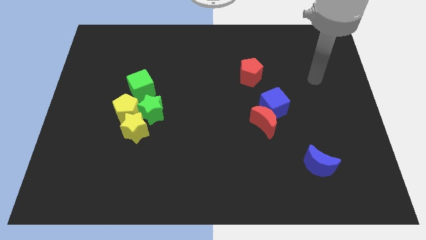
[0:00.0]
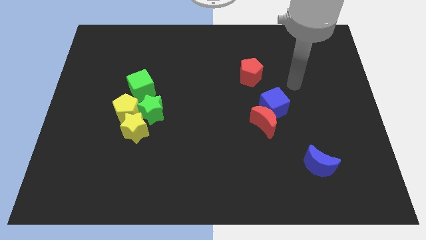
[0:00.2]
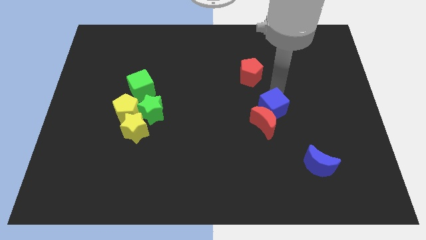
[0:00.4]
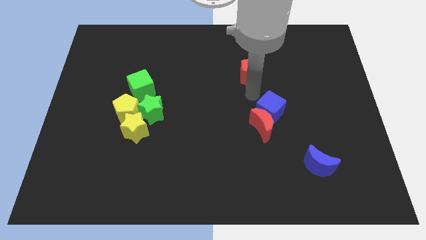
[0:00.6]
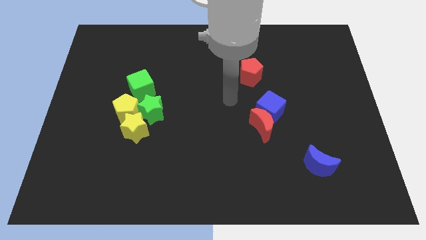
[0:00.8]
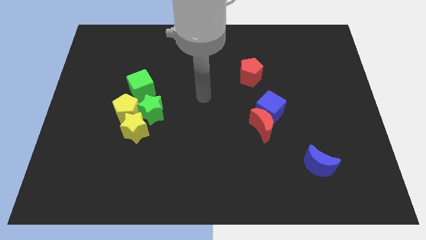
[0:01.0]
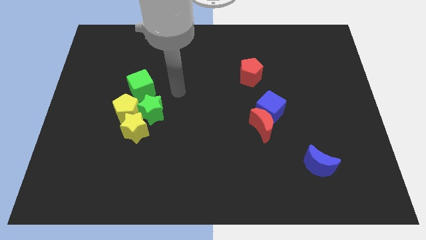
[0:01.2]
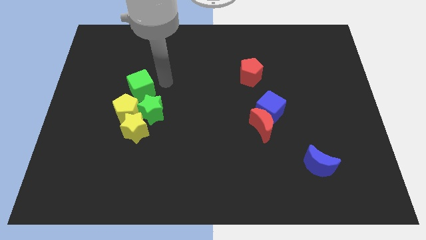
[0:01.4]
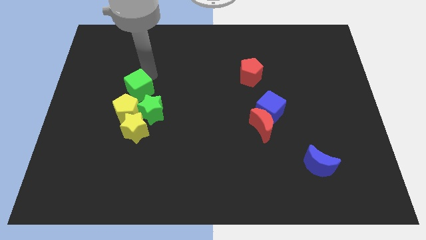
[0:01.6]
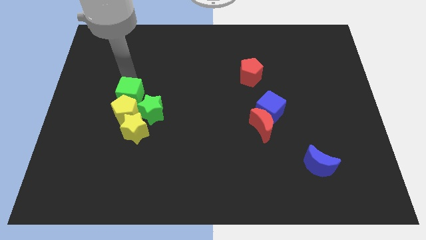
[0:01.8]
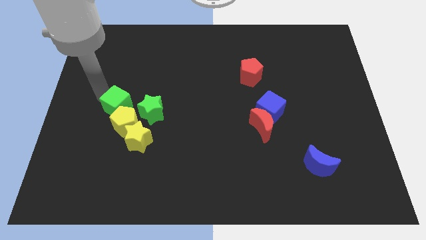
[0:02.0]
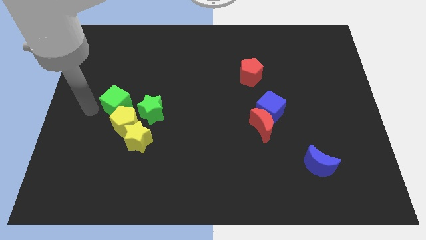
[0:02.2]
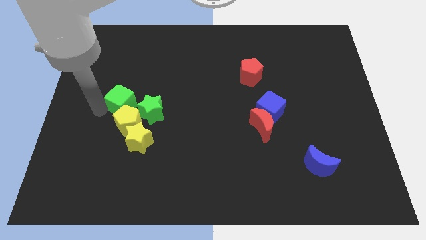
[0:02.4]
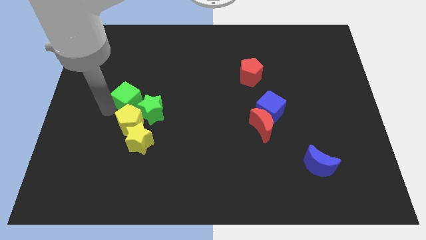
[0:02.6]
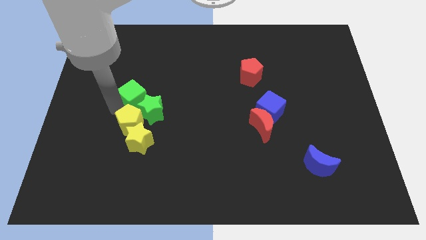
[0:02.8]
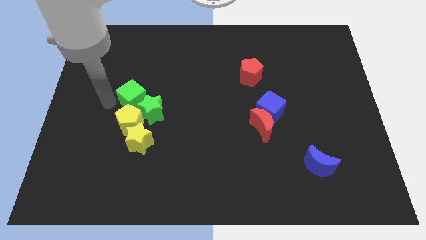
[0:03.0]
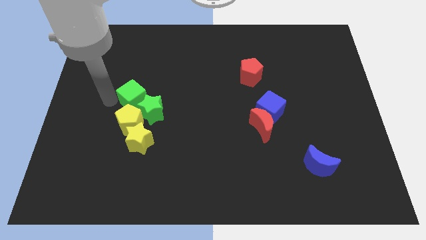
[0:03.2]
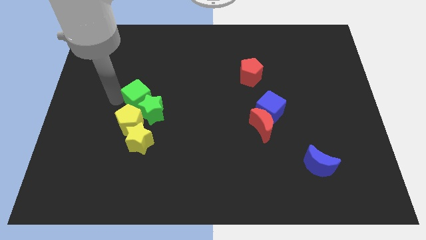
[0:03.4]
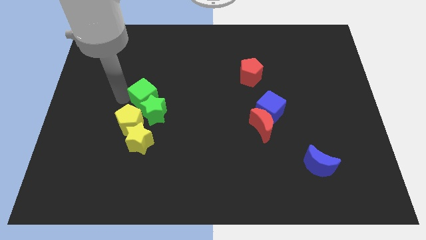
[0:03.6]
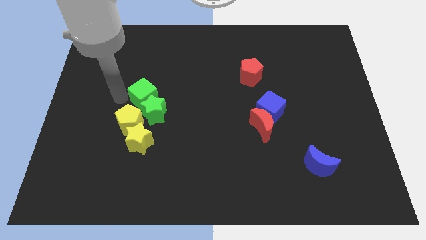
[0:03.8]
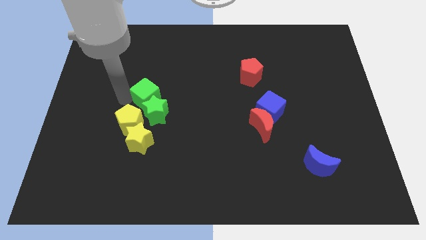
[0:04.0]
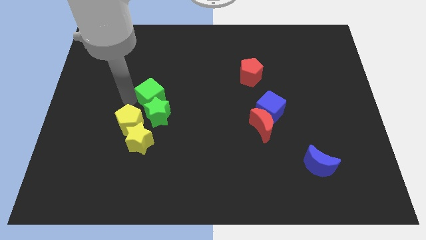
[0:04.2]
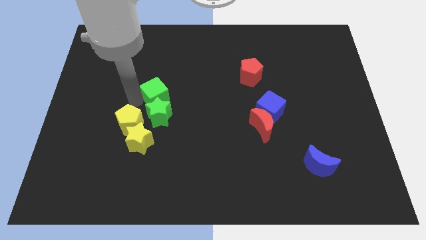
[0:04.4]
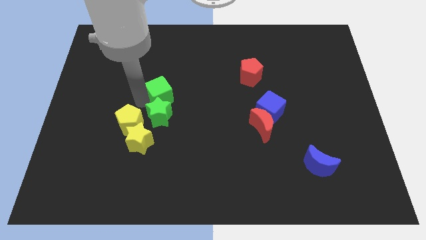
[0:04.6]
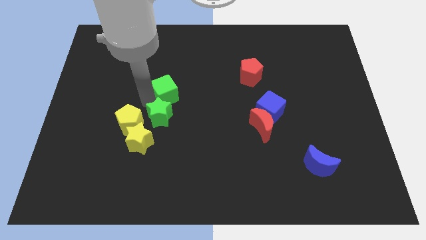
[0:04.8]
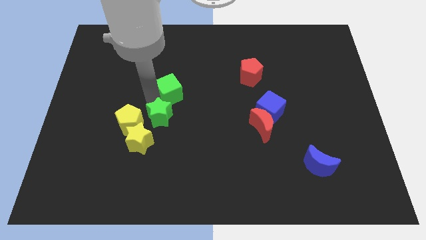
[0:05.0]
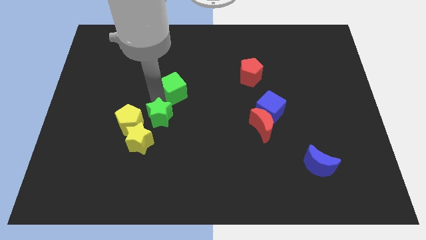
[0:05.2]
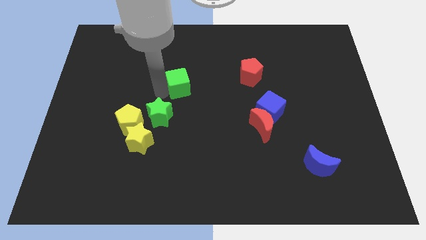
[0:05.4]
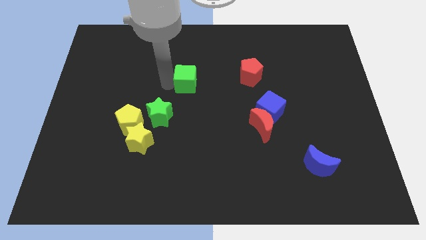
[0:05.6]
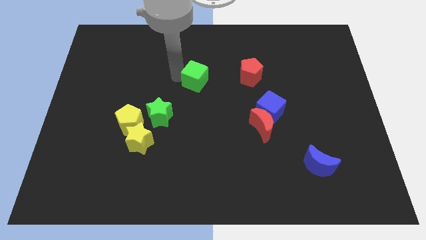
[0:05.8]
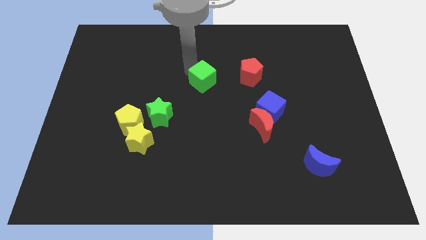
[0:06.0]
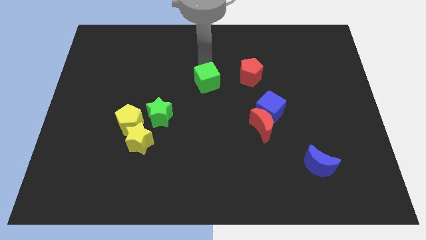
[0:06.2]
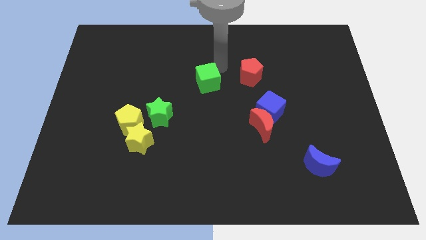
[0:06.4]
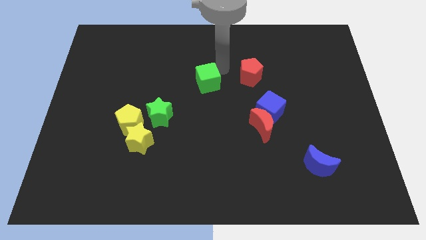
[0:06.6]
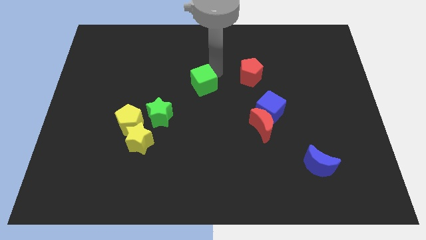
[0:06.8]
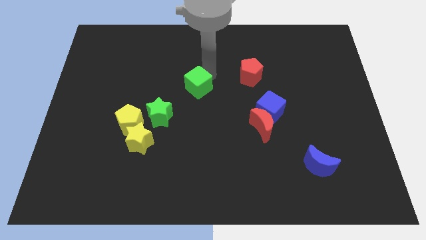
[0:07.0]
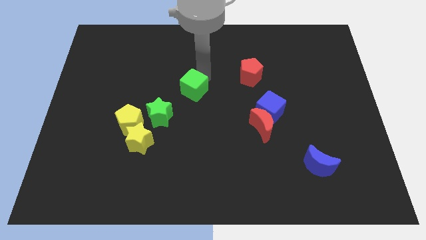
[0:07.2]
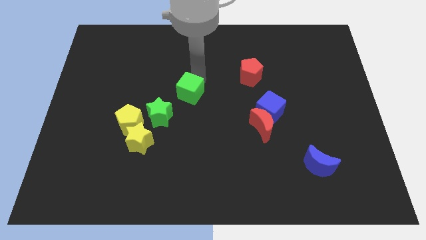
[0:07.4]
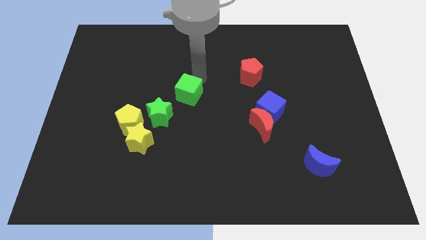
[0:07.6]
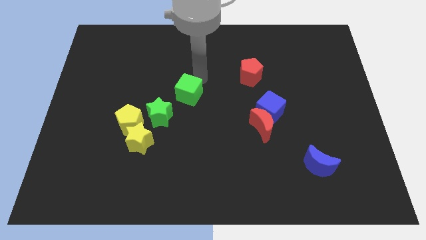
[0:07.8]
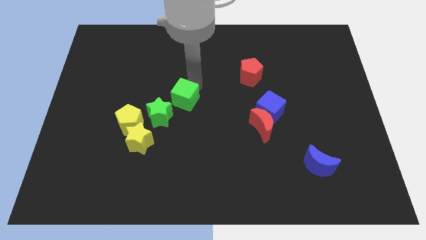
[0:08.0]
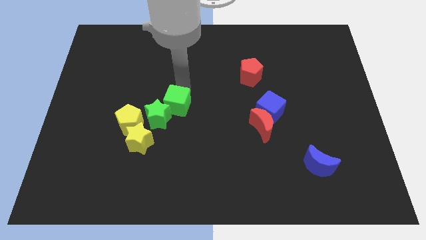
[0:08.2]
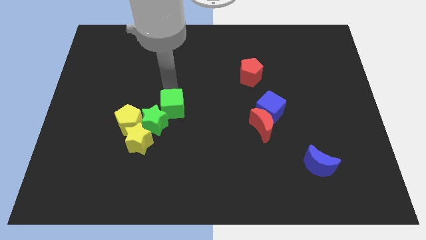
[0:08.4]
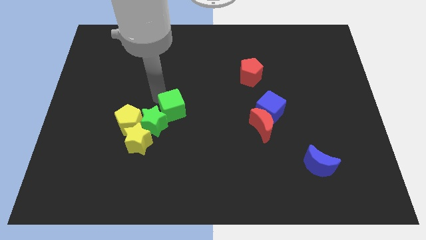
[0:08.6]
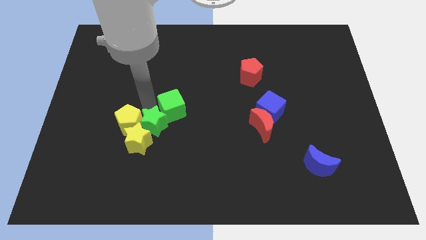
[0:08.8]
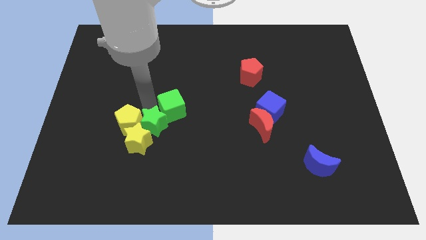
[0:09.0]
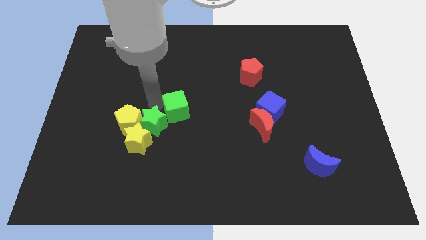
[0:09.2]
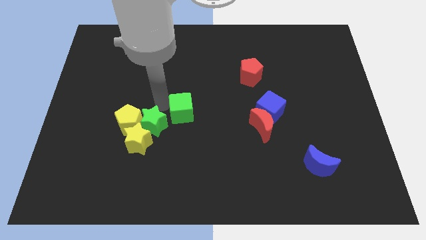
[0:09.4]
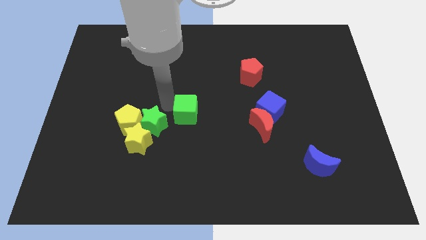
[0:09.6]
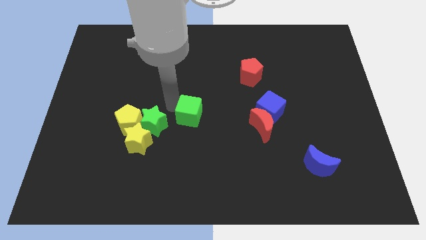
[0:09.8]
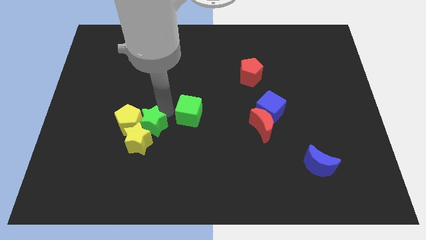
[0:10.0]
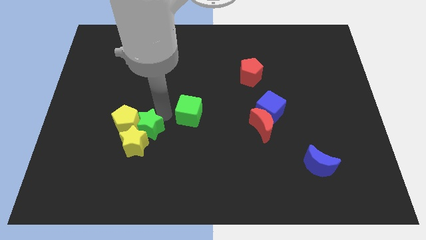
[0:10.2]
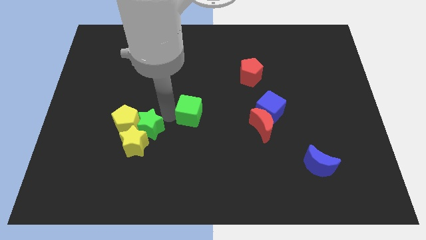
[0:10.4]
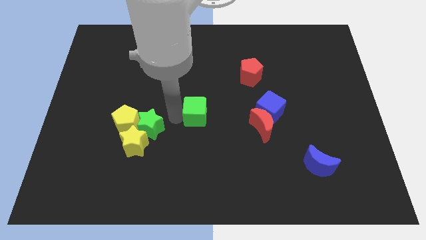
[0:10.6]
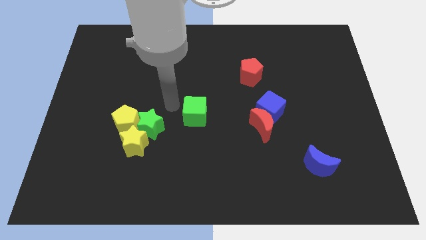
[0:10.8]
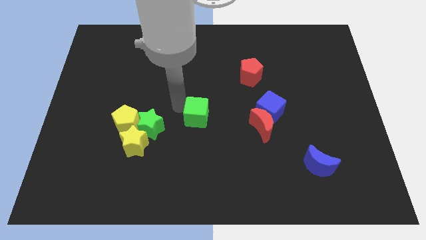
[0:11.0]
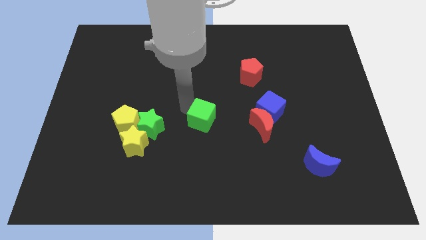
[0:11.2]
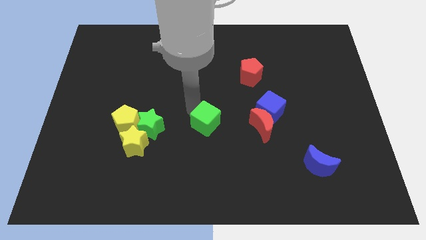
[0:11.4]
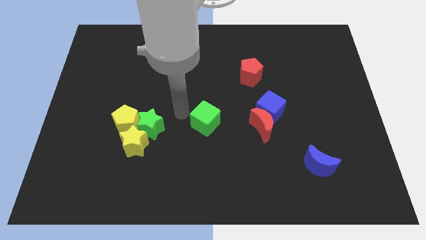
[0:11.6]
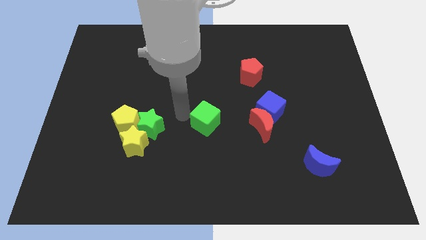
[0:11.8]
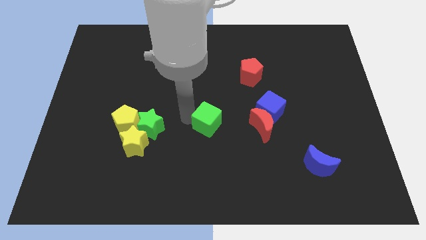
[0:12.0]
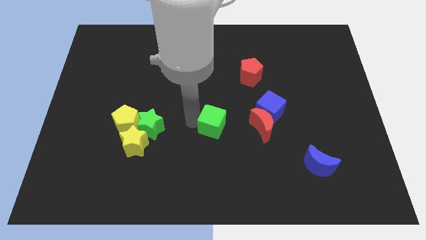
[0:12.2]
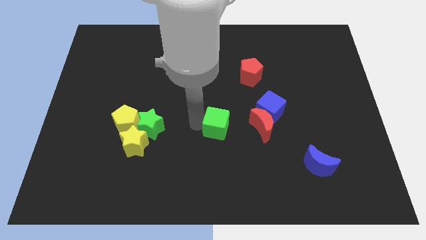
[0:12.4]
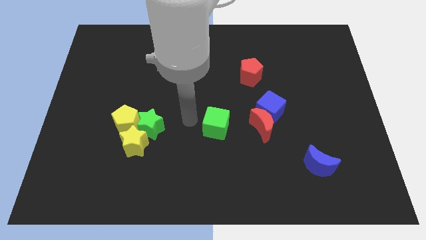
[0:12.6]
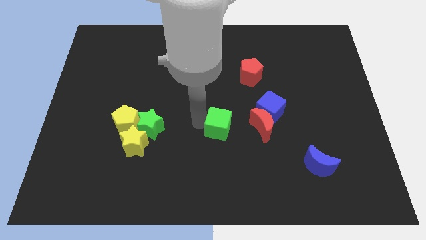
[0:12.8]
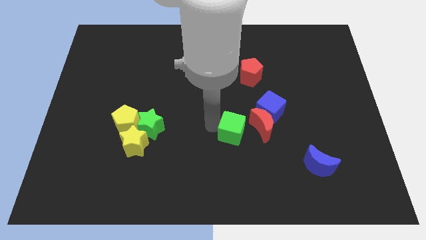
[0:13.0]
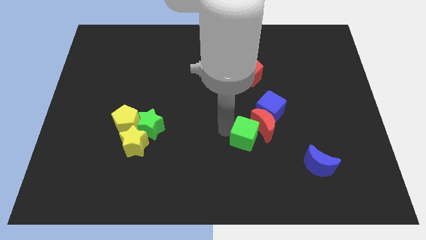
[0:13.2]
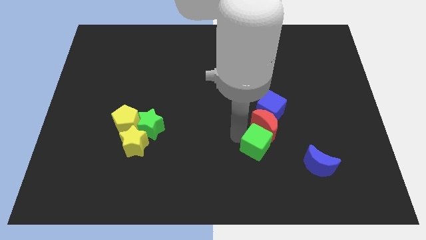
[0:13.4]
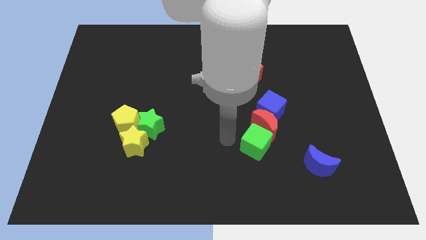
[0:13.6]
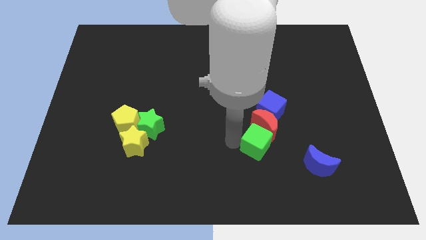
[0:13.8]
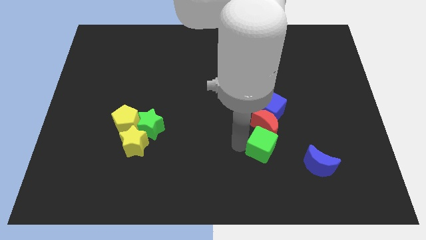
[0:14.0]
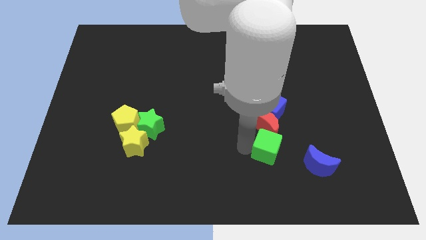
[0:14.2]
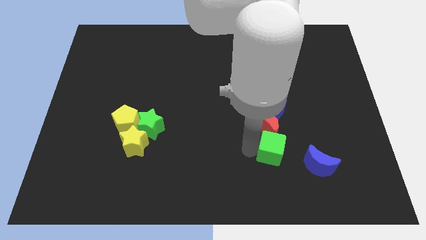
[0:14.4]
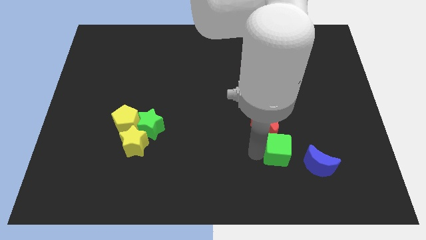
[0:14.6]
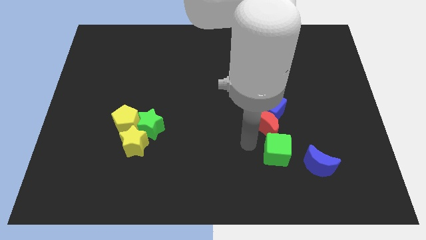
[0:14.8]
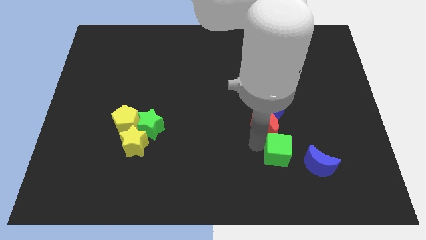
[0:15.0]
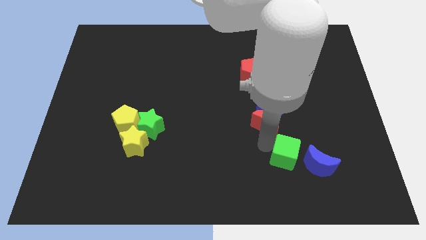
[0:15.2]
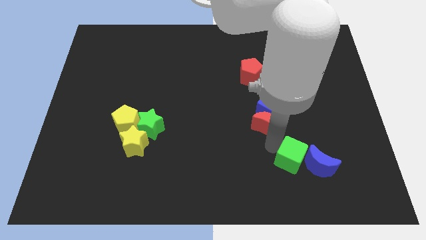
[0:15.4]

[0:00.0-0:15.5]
slide the green cube towards the blue moon
